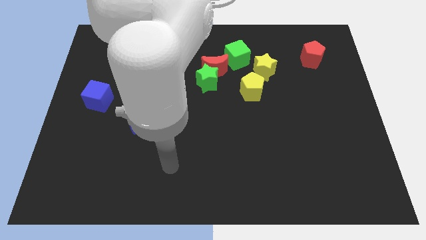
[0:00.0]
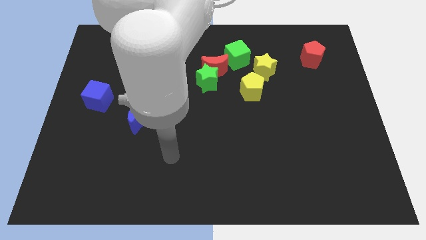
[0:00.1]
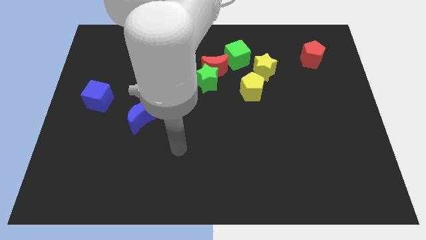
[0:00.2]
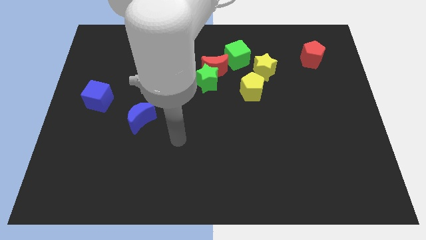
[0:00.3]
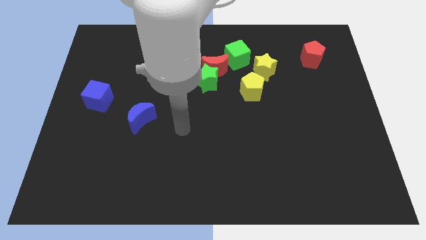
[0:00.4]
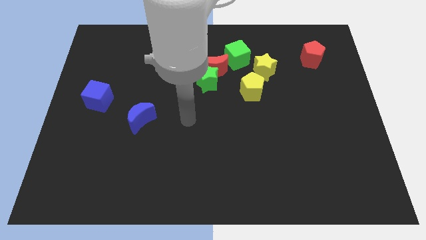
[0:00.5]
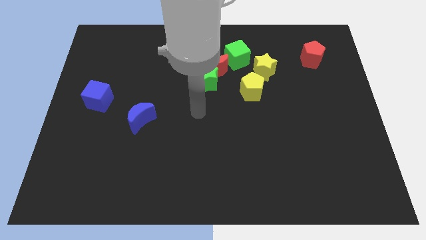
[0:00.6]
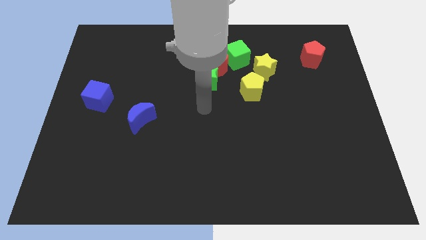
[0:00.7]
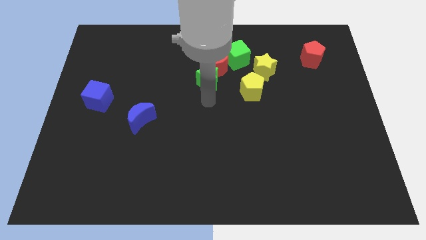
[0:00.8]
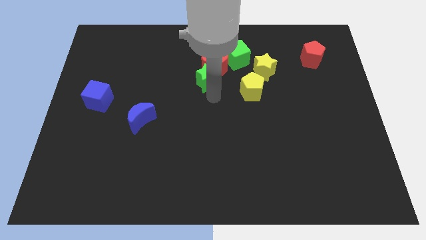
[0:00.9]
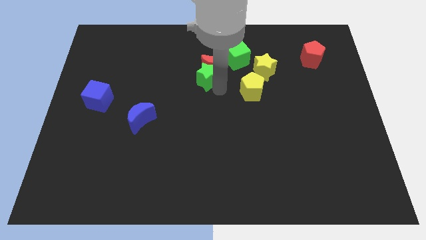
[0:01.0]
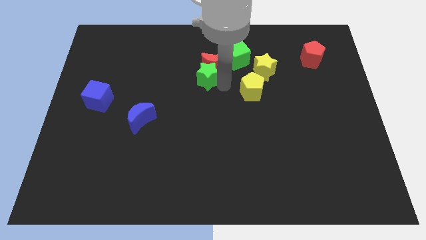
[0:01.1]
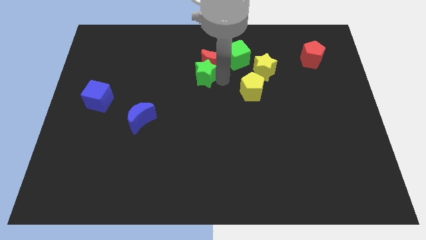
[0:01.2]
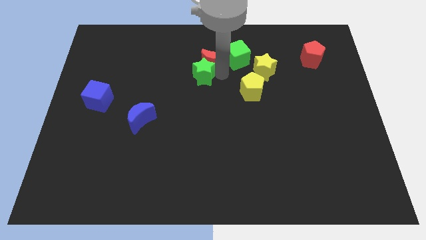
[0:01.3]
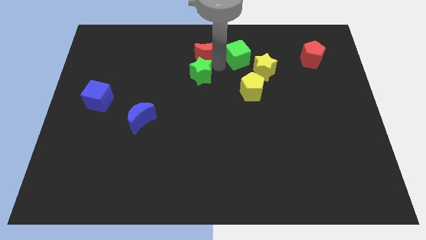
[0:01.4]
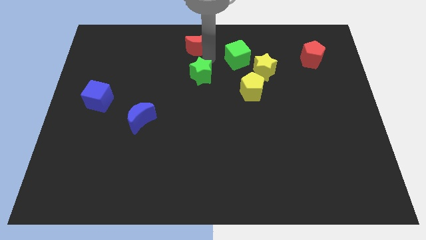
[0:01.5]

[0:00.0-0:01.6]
separate the green star from the red moon

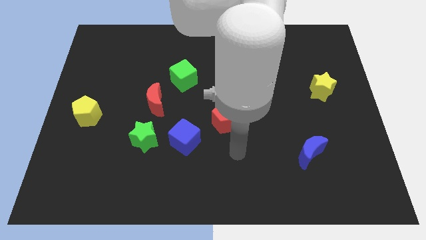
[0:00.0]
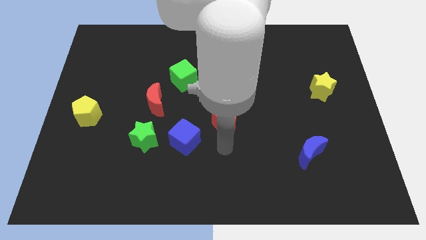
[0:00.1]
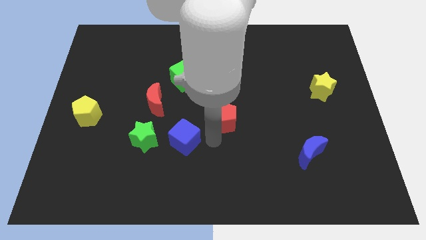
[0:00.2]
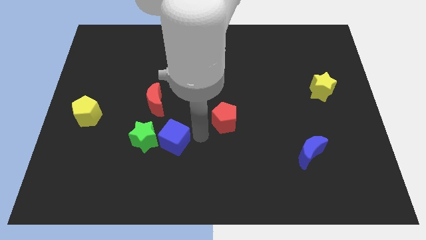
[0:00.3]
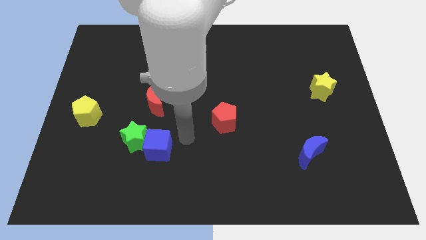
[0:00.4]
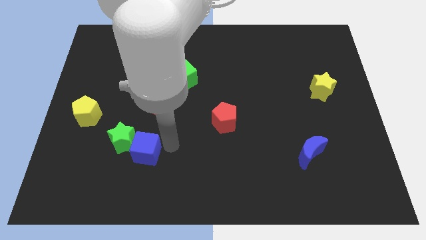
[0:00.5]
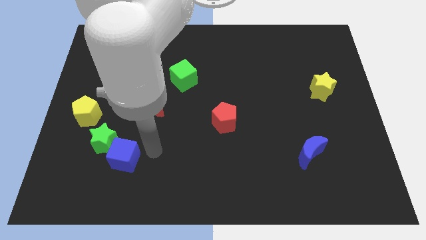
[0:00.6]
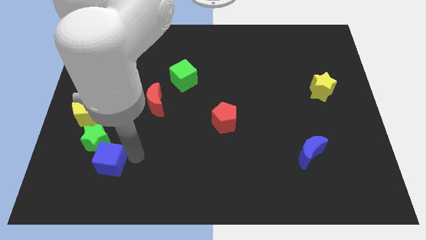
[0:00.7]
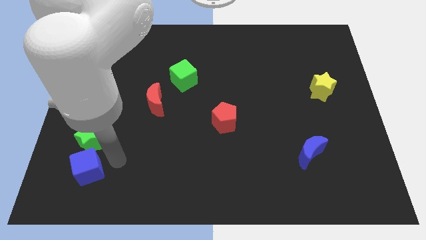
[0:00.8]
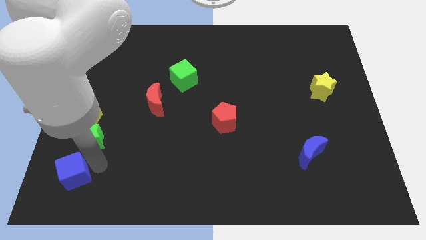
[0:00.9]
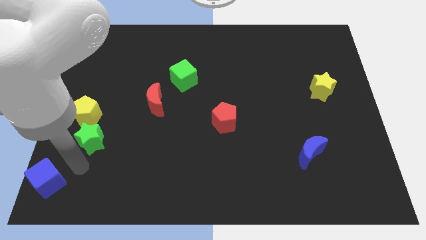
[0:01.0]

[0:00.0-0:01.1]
pull the green star apart from the blue cube

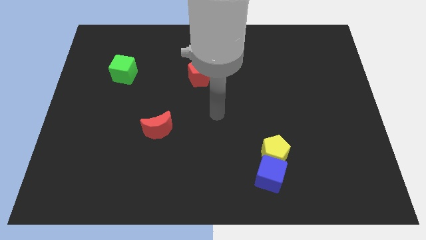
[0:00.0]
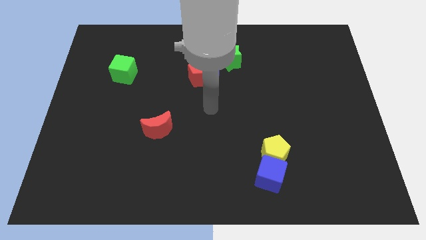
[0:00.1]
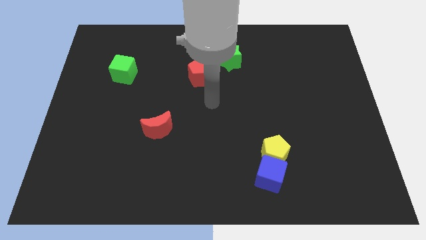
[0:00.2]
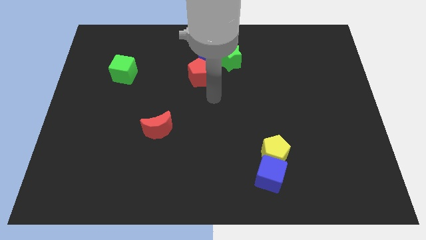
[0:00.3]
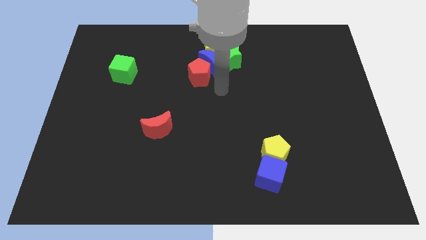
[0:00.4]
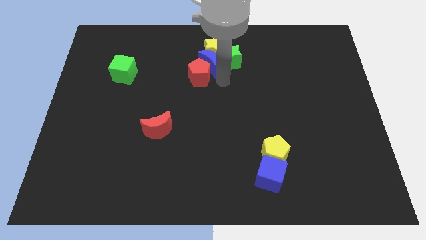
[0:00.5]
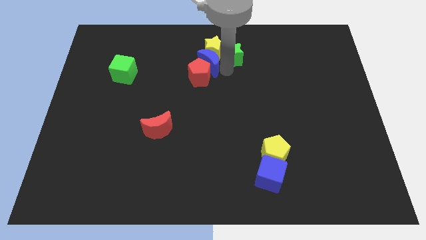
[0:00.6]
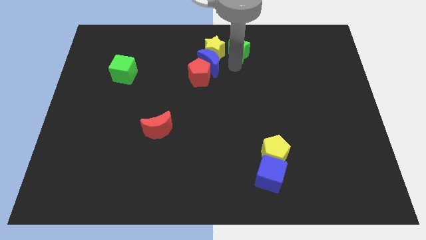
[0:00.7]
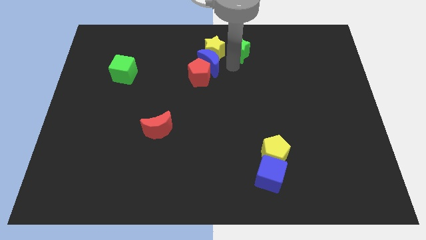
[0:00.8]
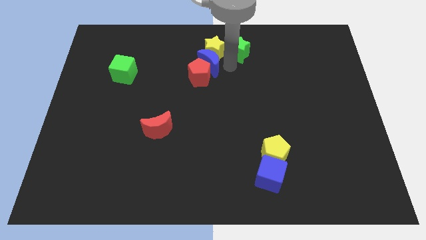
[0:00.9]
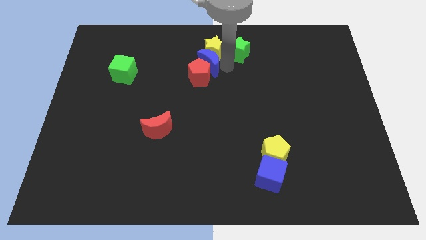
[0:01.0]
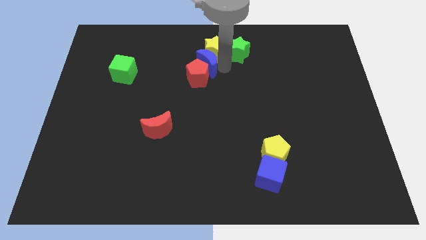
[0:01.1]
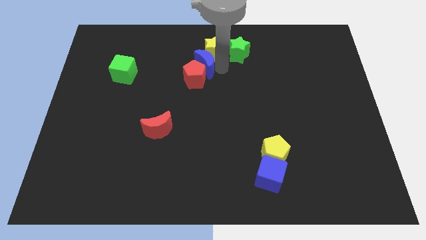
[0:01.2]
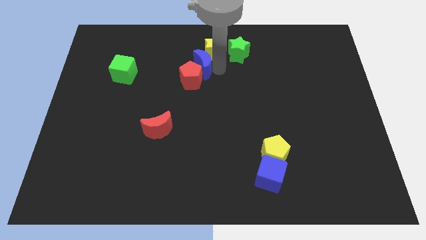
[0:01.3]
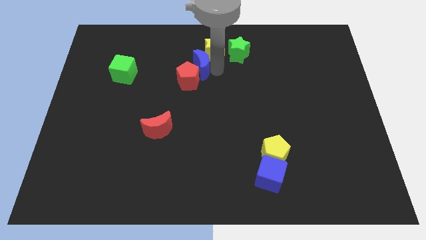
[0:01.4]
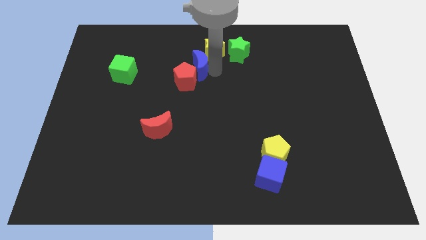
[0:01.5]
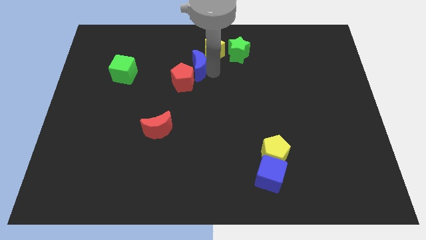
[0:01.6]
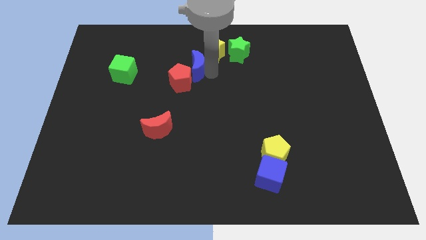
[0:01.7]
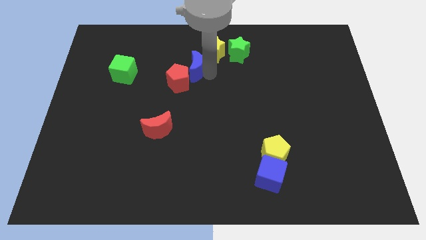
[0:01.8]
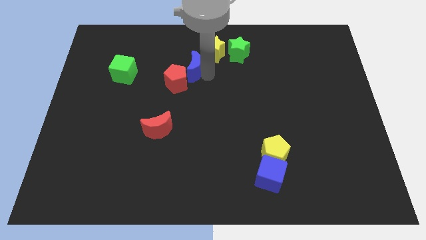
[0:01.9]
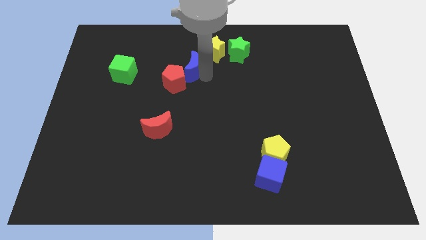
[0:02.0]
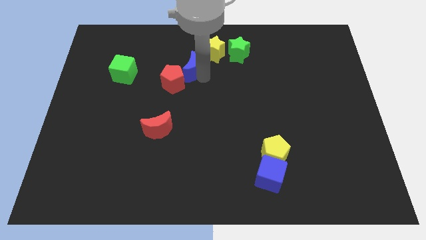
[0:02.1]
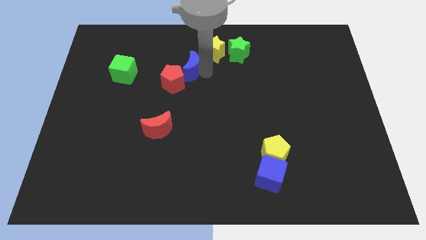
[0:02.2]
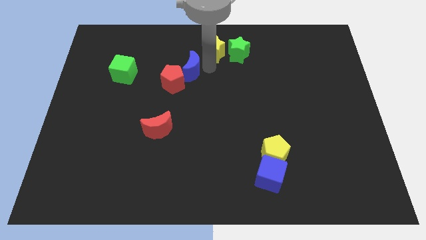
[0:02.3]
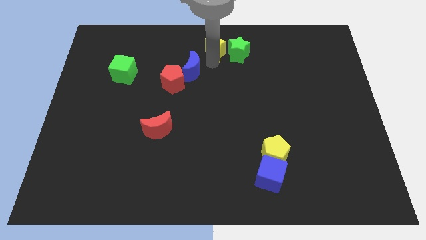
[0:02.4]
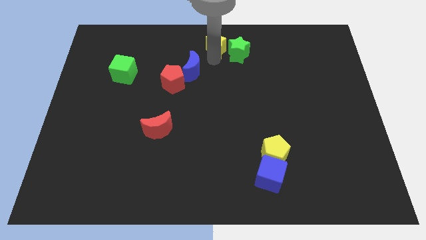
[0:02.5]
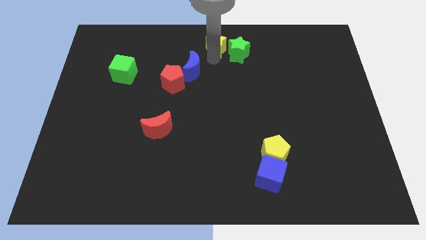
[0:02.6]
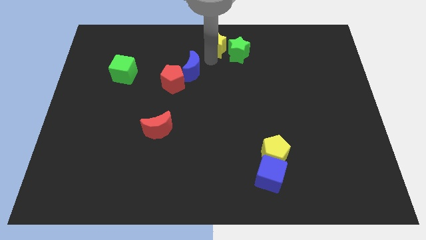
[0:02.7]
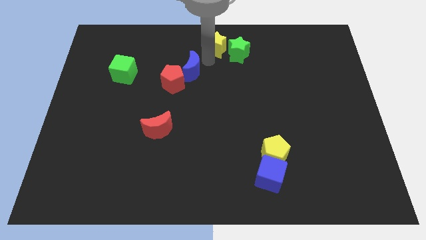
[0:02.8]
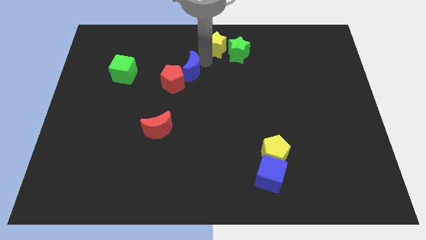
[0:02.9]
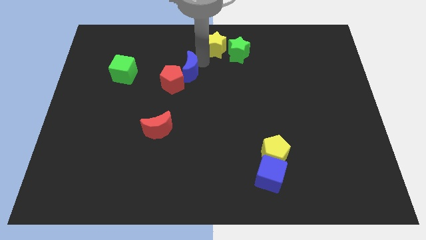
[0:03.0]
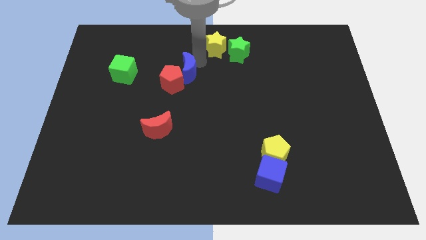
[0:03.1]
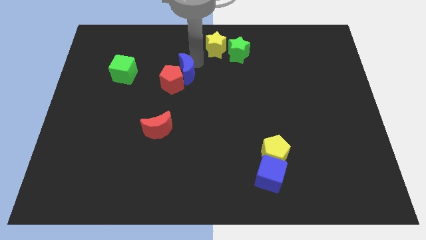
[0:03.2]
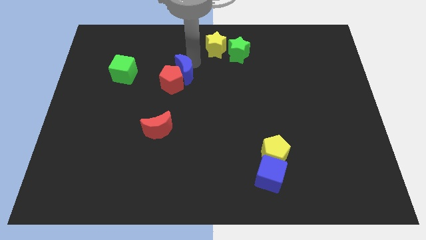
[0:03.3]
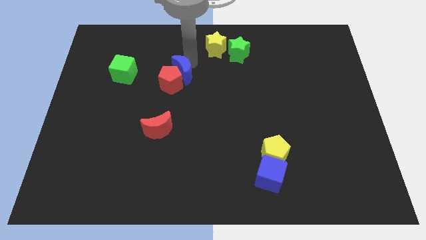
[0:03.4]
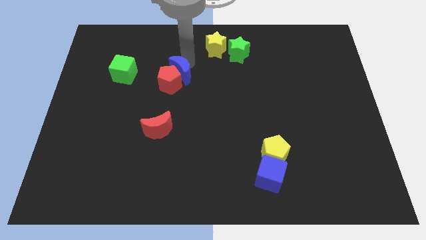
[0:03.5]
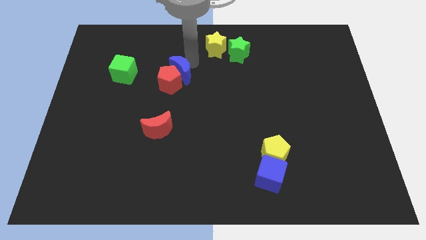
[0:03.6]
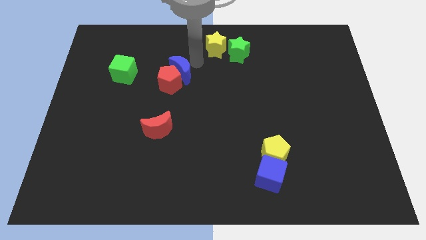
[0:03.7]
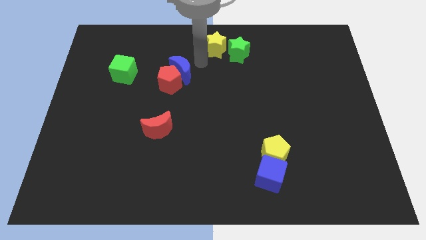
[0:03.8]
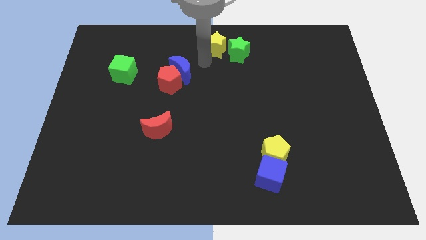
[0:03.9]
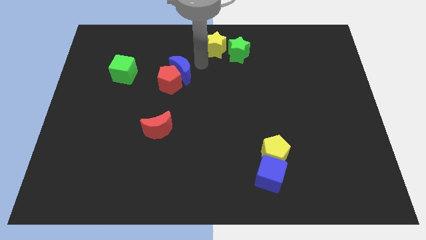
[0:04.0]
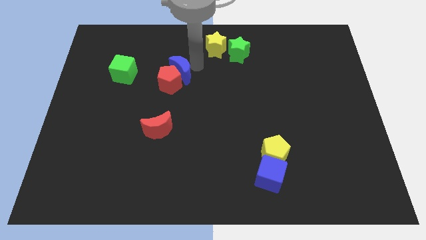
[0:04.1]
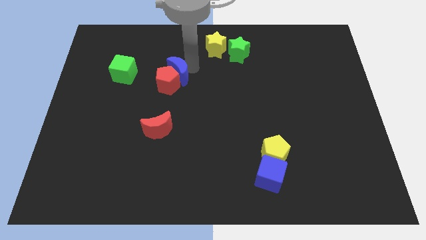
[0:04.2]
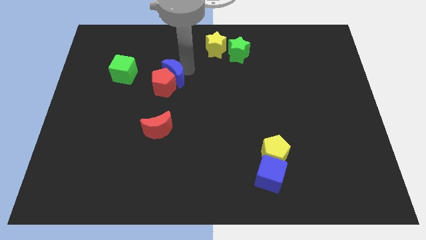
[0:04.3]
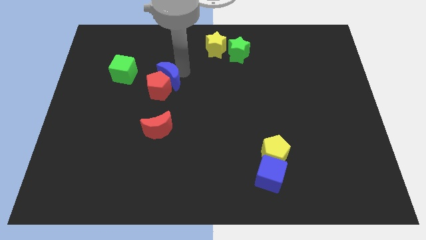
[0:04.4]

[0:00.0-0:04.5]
pull the blue moon apart from the group of blocks

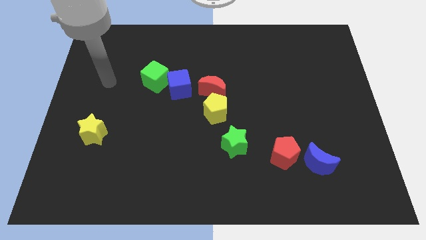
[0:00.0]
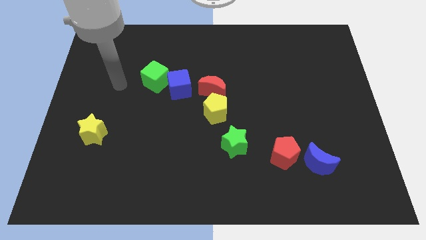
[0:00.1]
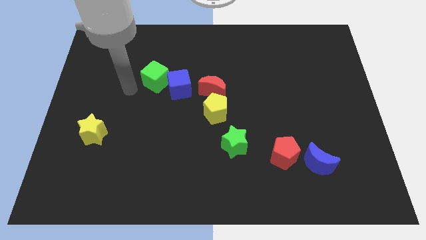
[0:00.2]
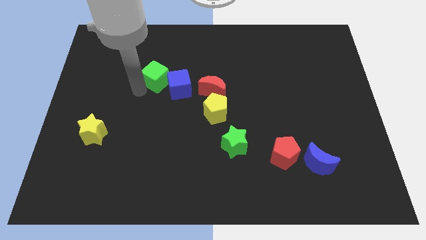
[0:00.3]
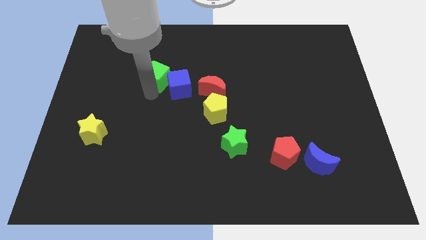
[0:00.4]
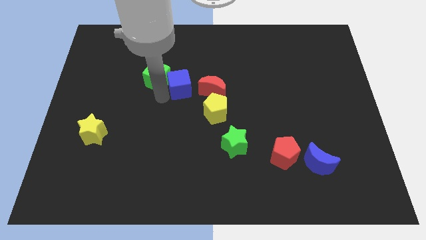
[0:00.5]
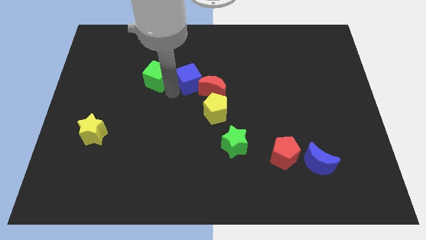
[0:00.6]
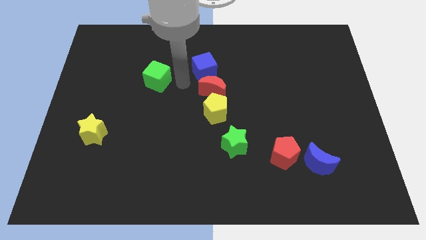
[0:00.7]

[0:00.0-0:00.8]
pull the green cube apart from the blue cube

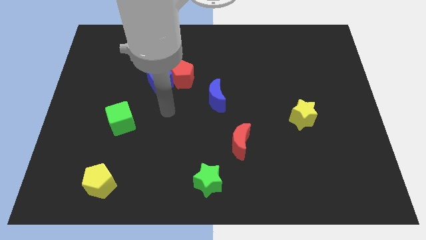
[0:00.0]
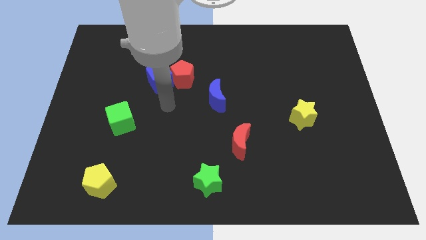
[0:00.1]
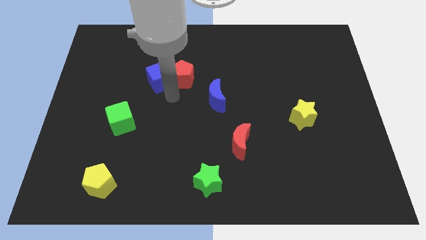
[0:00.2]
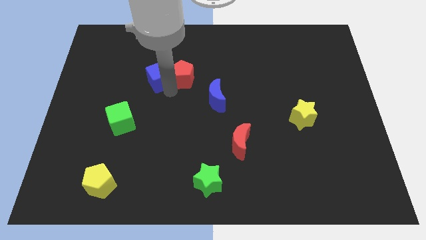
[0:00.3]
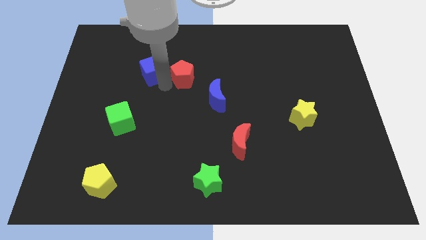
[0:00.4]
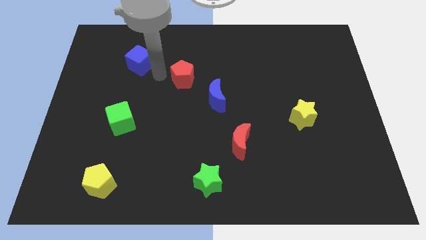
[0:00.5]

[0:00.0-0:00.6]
pull the red pentagon apart from the blue cube

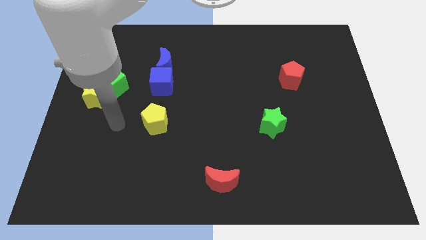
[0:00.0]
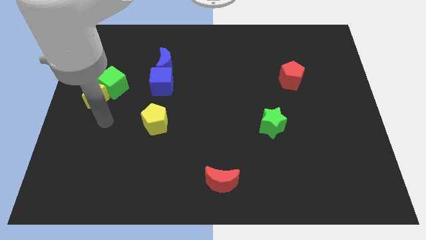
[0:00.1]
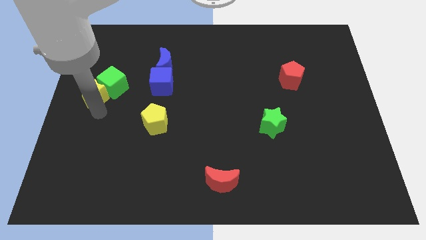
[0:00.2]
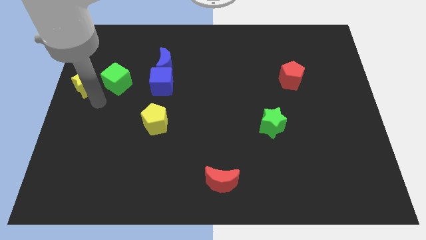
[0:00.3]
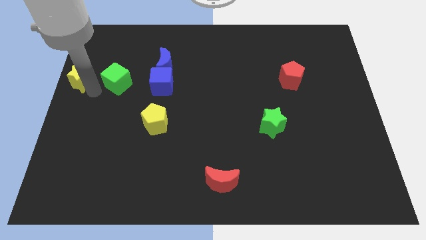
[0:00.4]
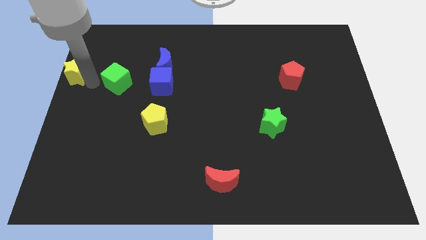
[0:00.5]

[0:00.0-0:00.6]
move the green cube away from the yellow star
